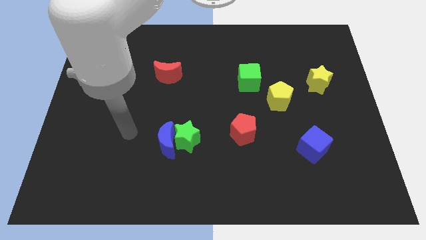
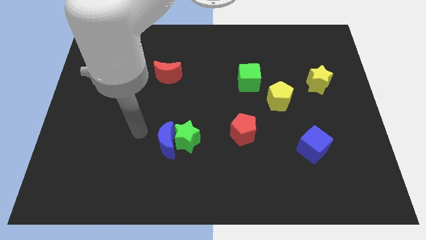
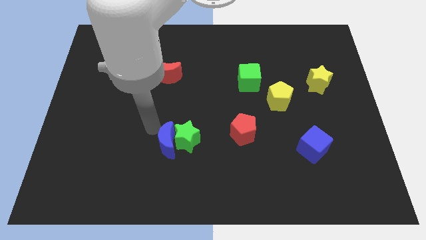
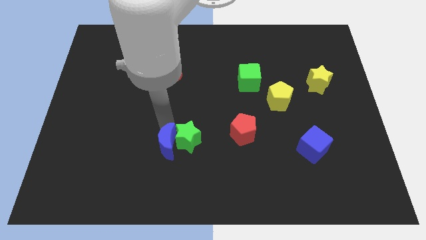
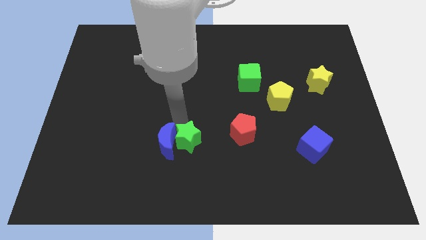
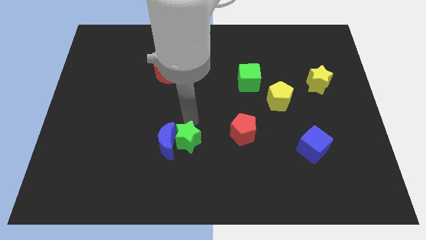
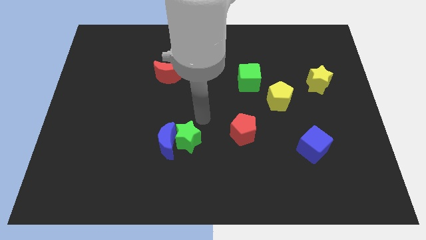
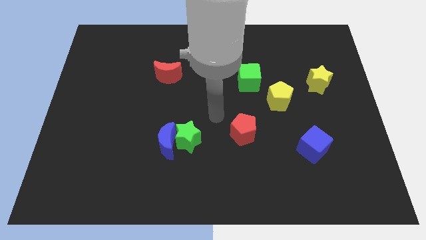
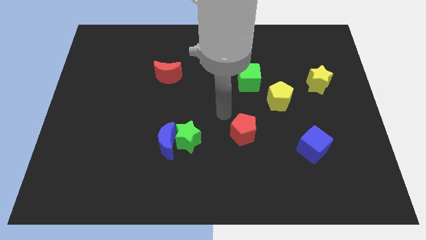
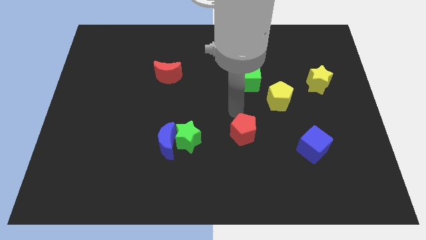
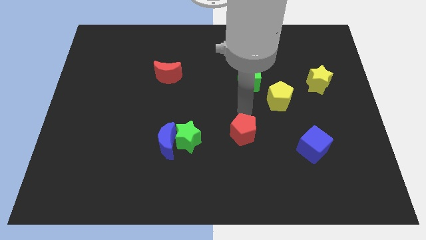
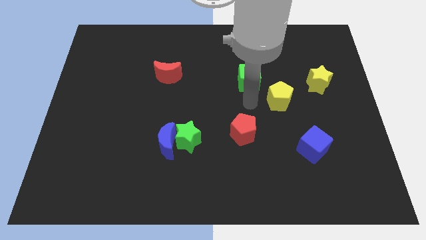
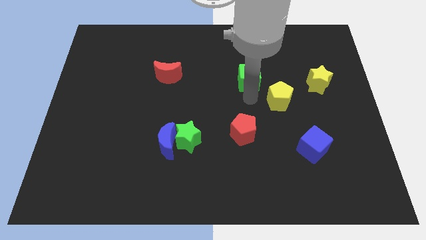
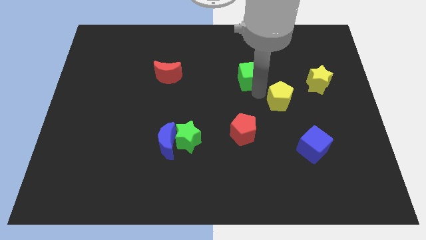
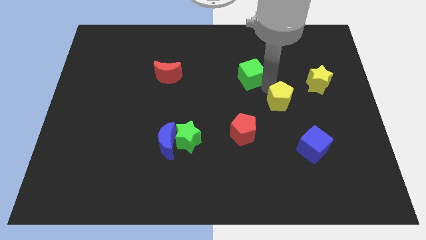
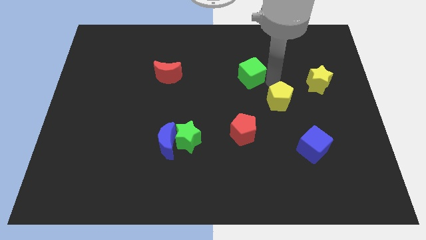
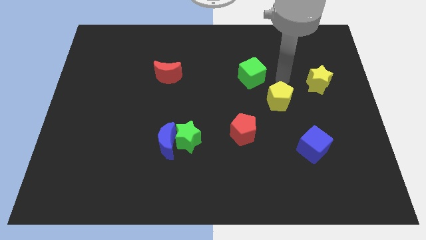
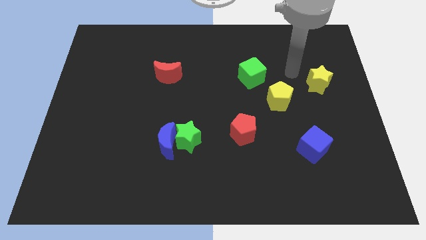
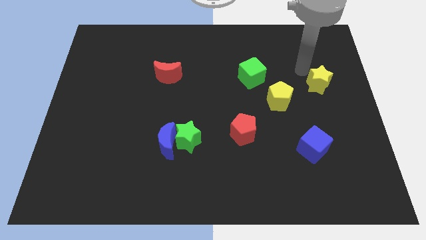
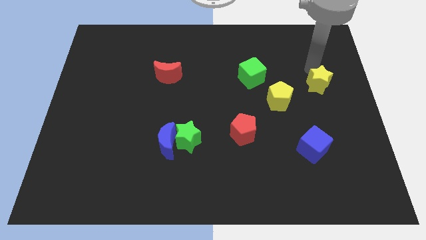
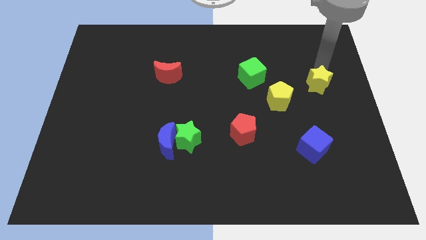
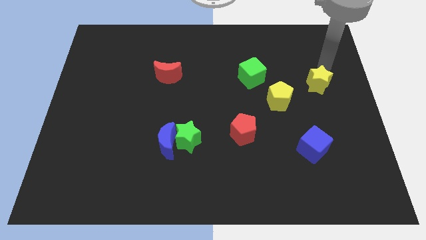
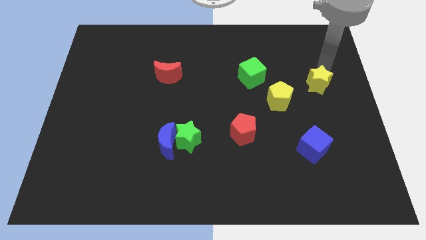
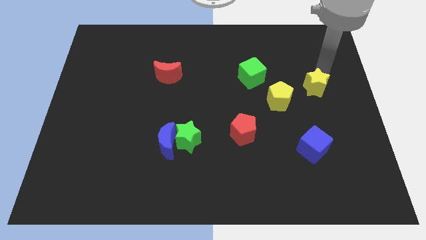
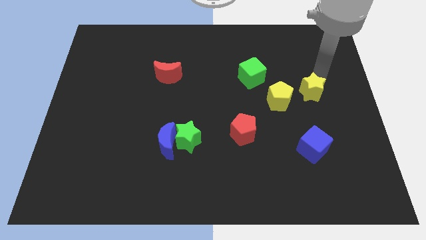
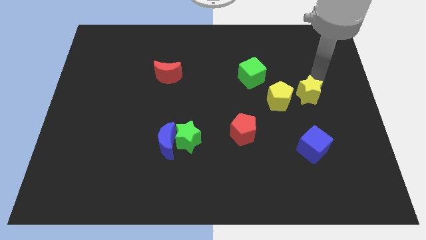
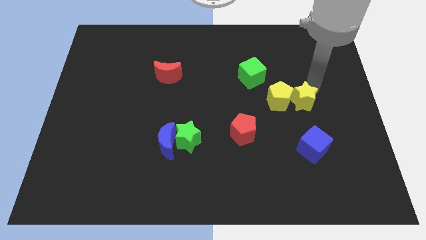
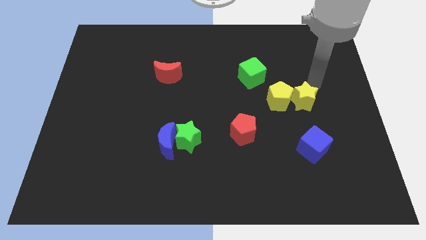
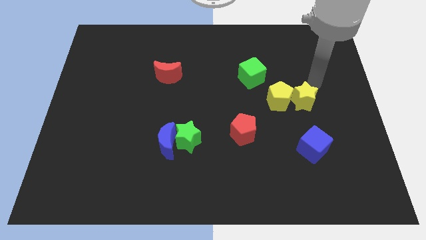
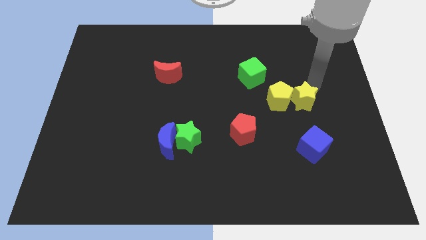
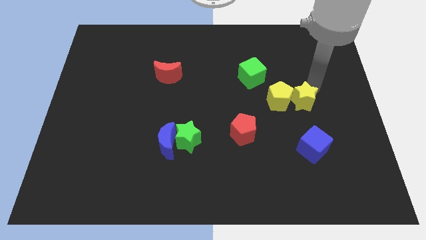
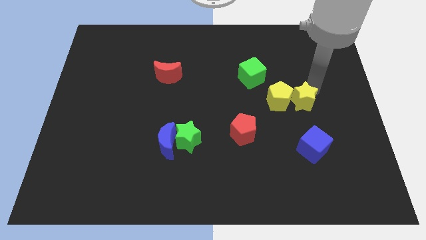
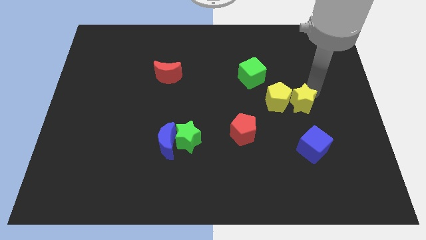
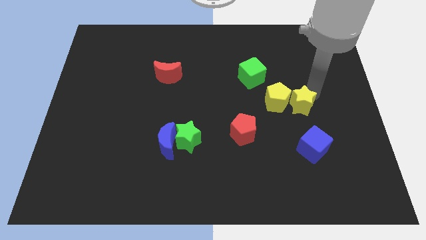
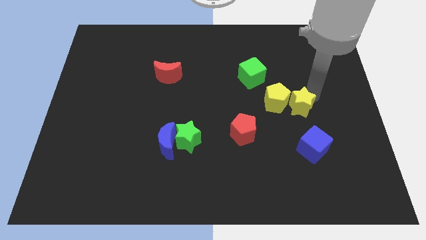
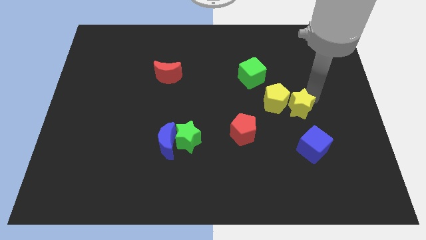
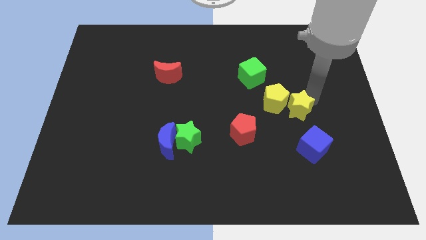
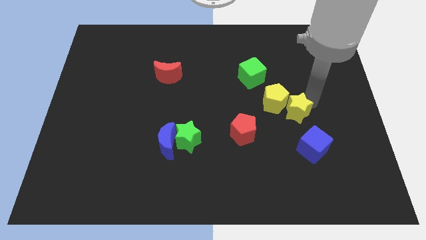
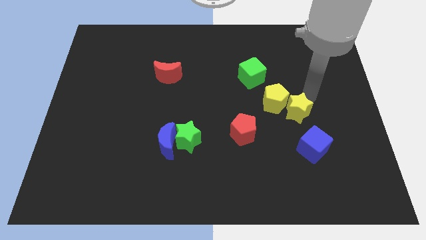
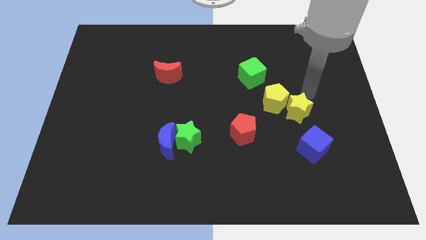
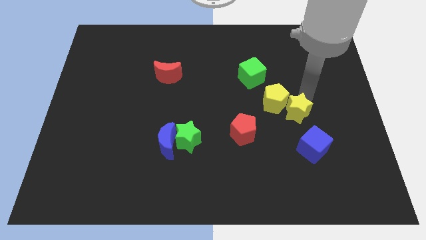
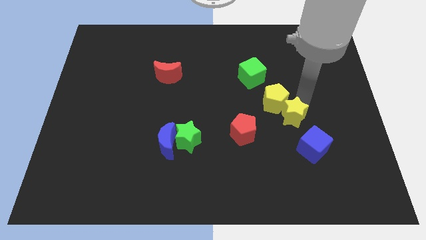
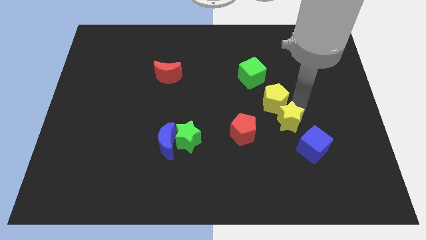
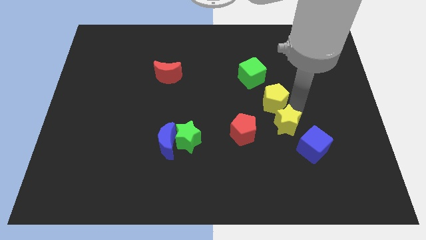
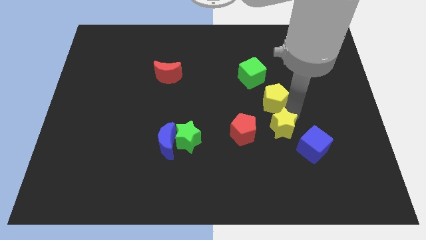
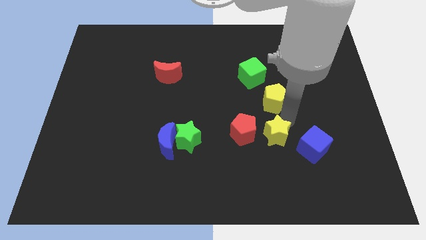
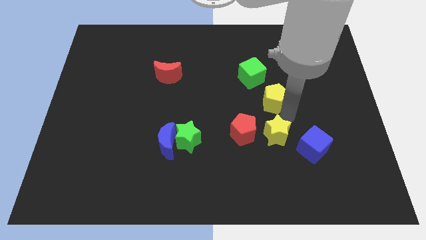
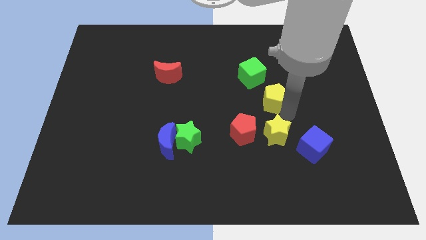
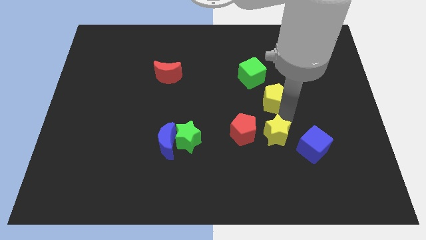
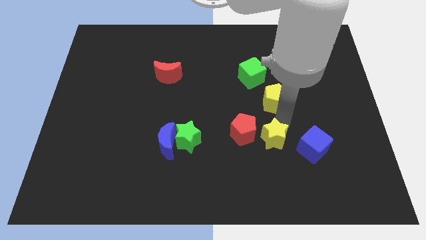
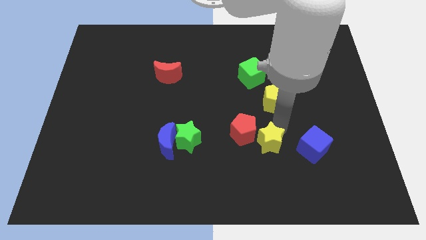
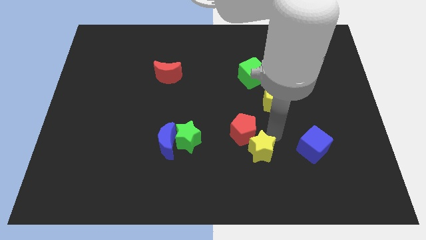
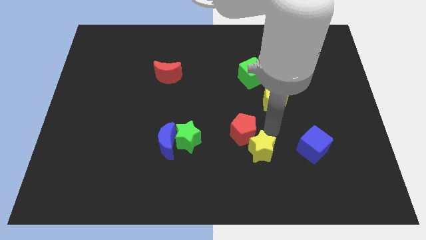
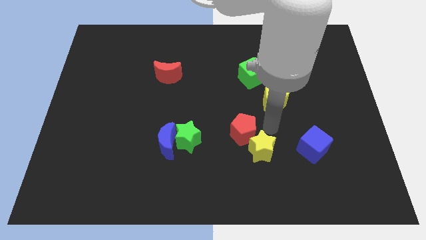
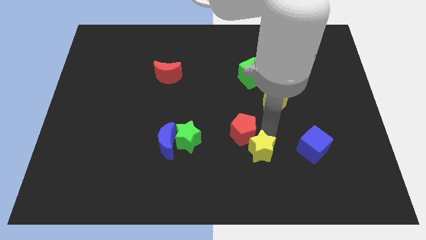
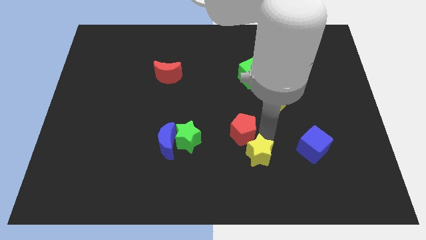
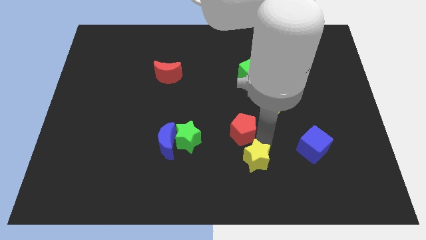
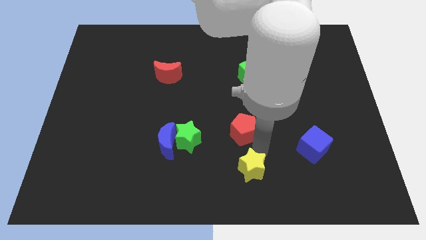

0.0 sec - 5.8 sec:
slide the yellow star to the bottom side

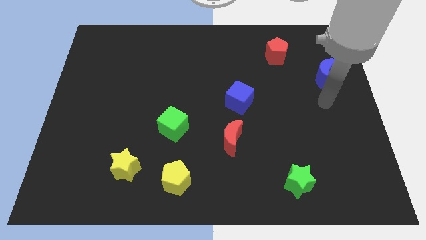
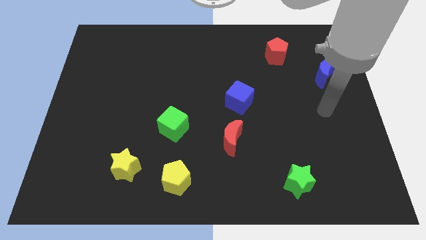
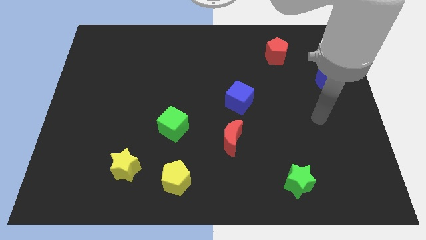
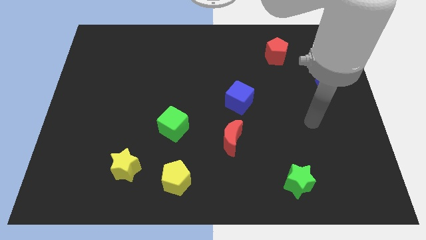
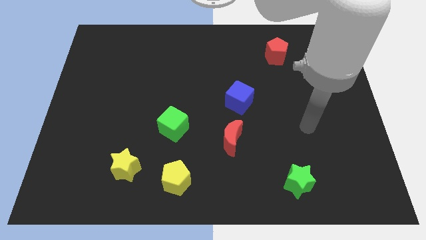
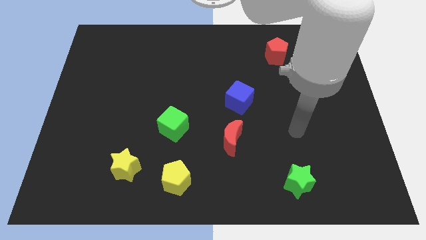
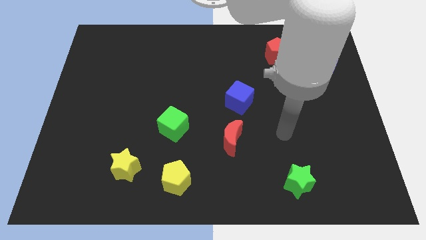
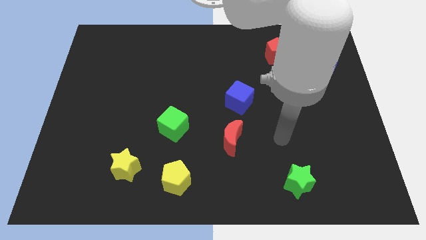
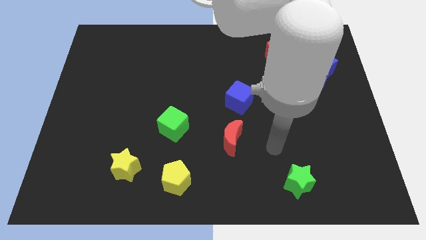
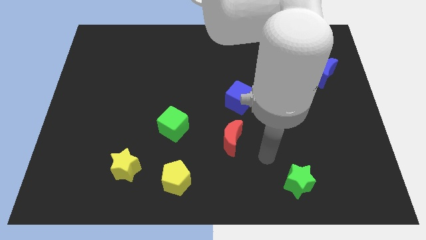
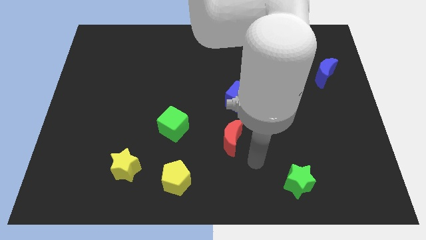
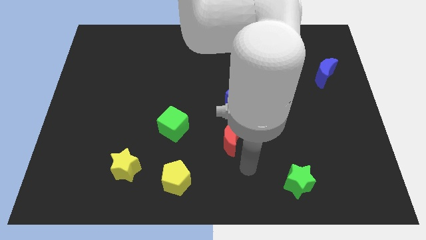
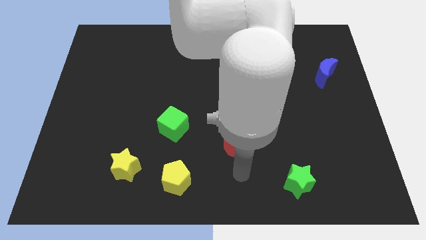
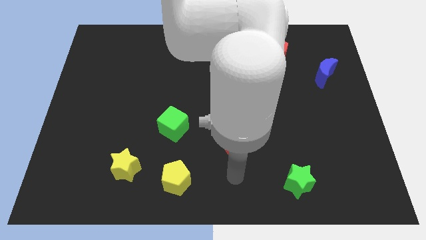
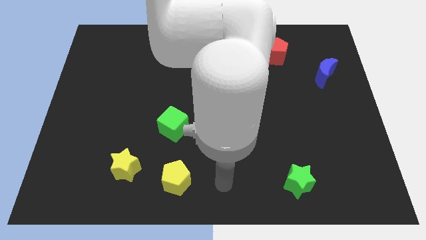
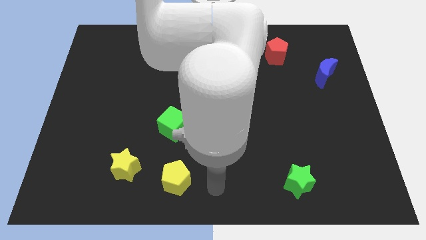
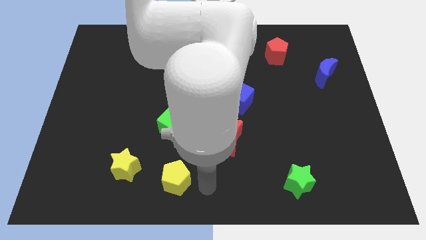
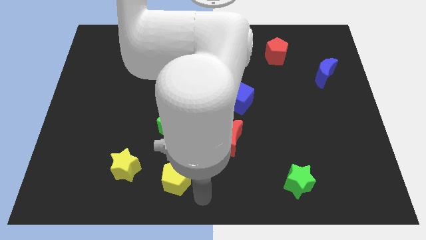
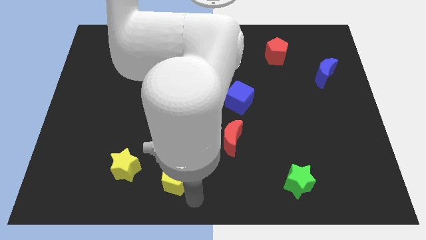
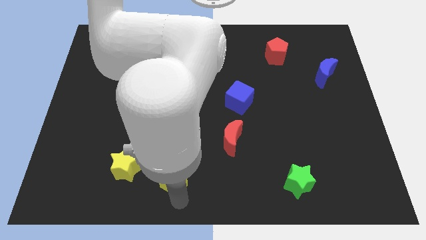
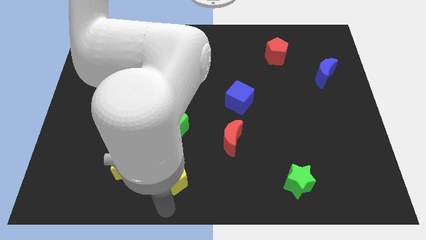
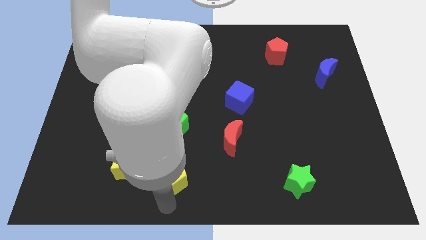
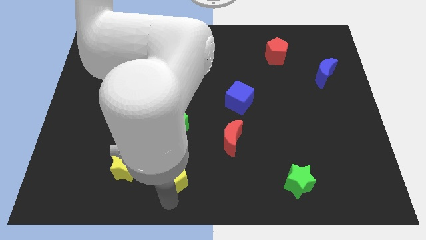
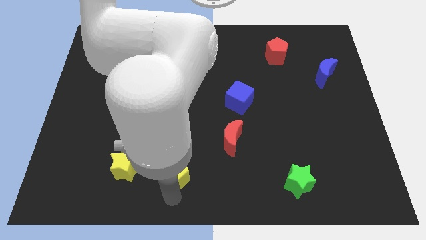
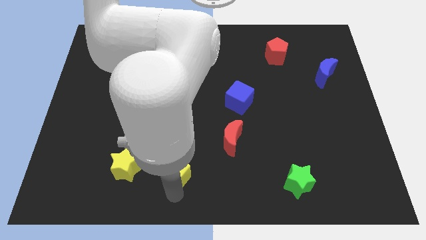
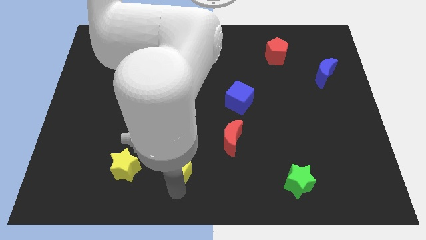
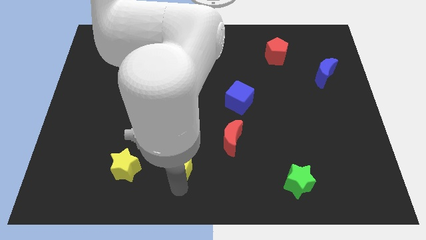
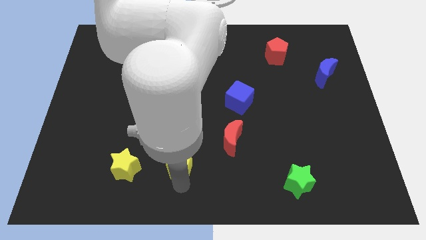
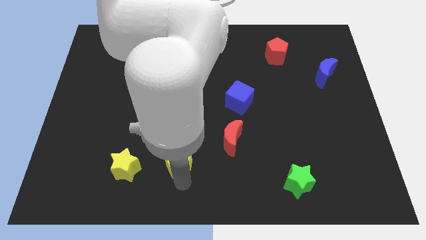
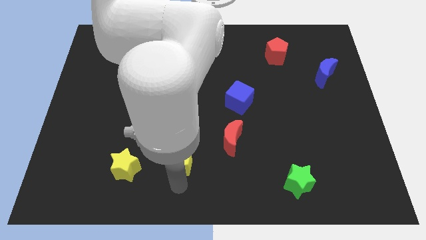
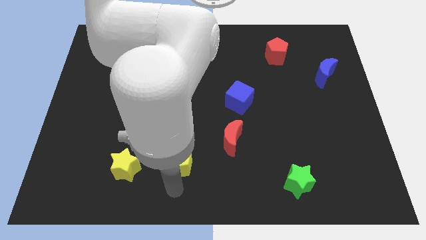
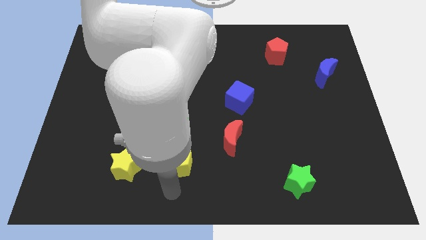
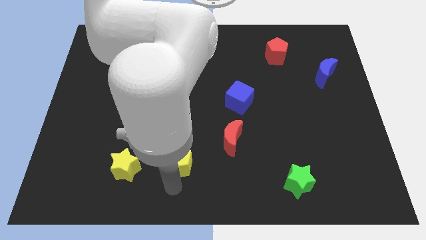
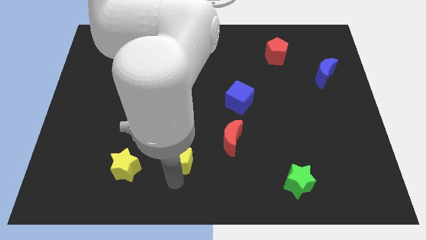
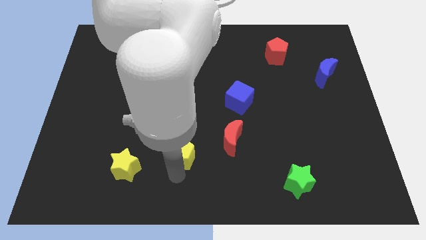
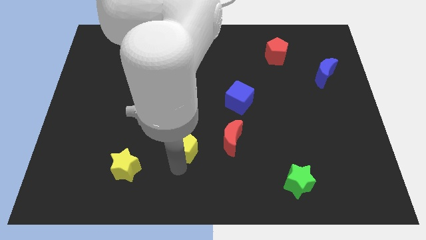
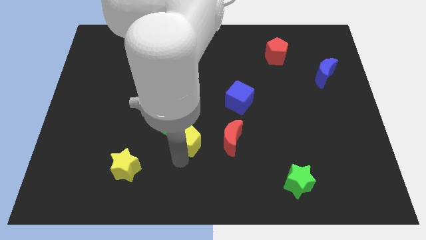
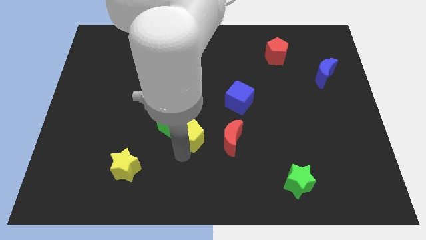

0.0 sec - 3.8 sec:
move the yellow pentagon to the center
